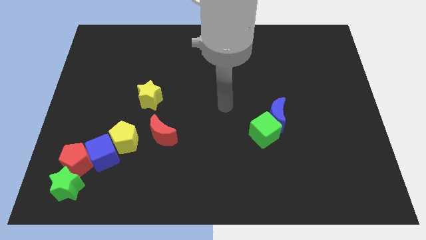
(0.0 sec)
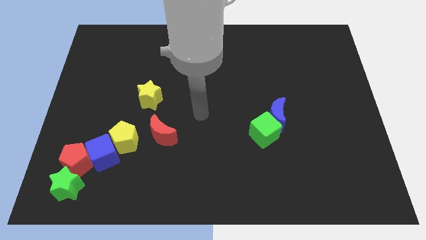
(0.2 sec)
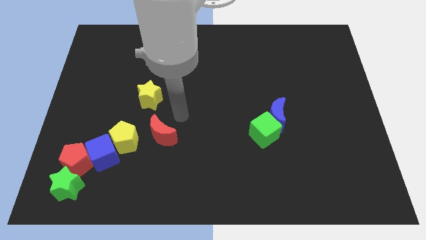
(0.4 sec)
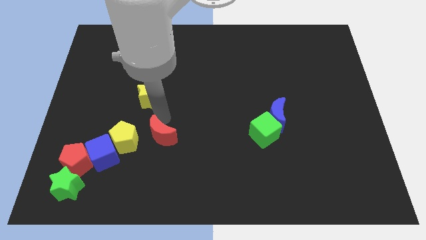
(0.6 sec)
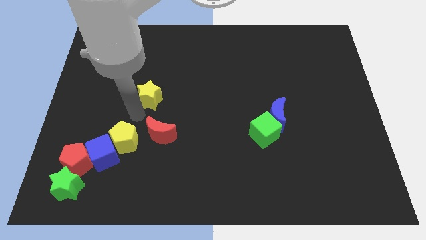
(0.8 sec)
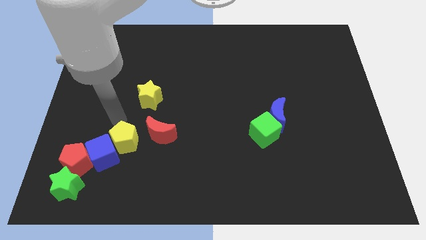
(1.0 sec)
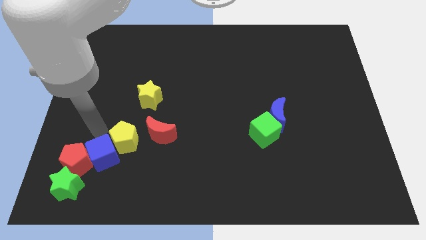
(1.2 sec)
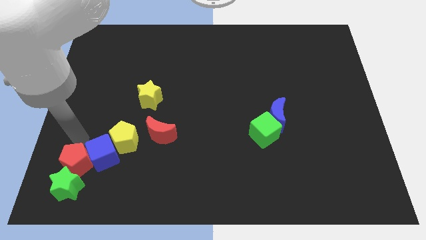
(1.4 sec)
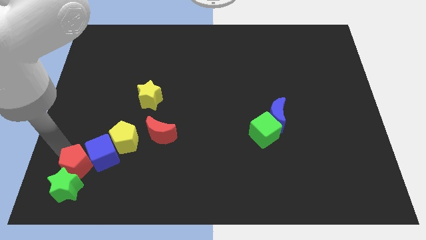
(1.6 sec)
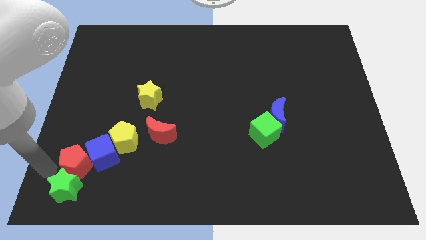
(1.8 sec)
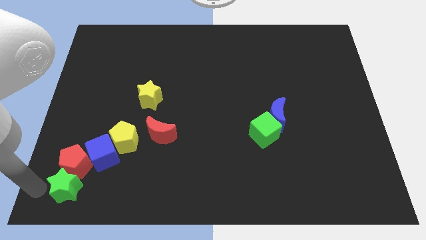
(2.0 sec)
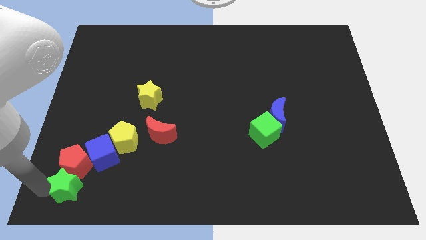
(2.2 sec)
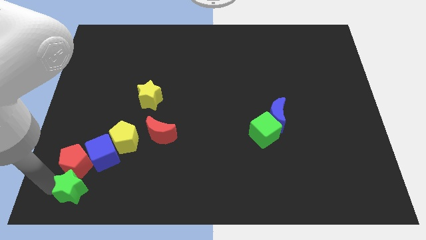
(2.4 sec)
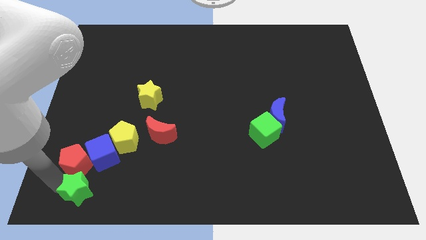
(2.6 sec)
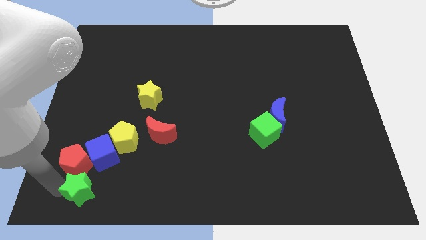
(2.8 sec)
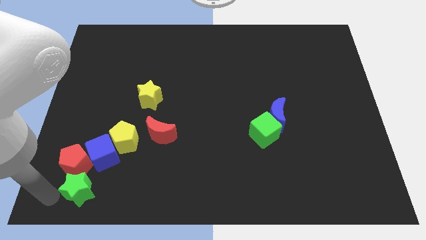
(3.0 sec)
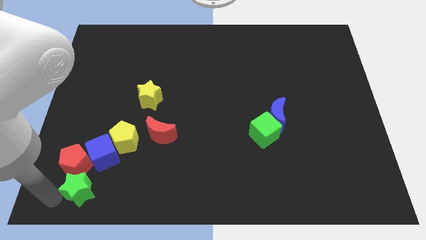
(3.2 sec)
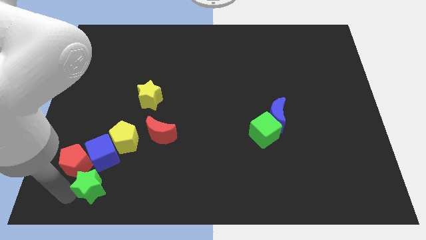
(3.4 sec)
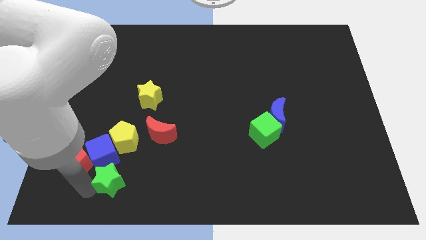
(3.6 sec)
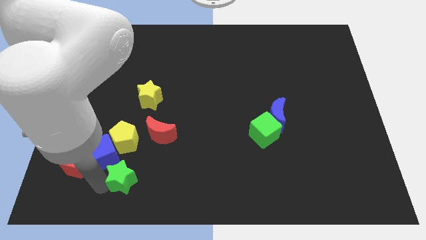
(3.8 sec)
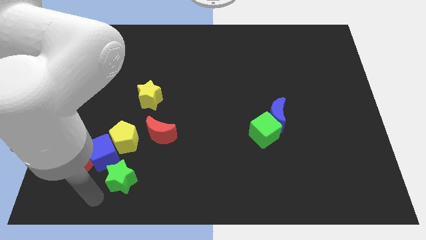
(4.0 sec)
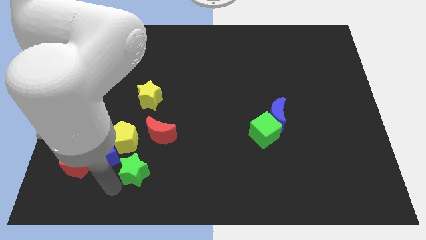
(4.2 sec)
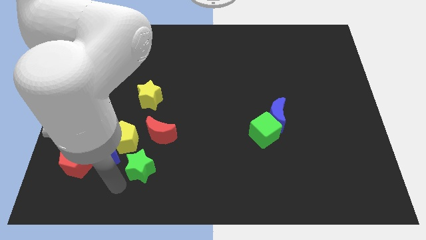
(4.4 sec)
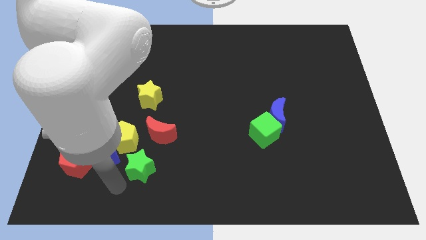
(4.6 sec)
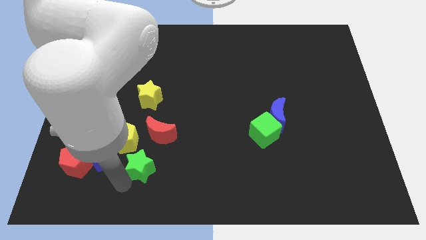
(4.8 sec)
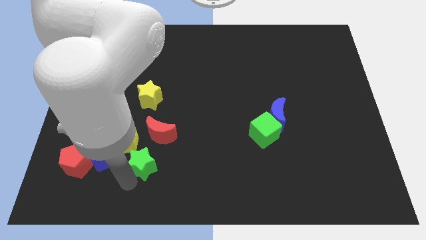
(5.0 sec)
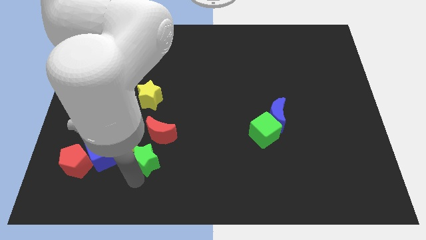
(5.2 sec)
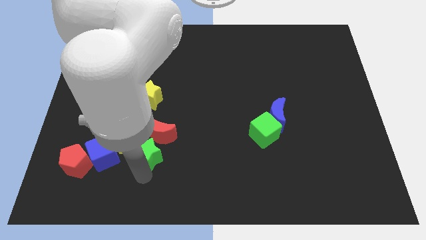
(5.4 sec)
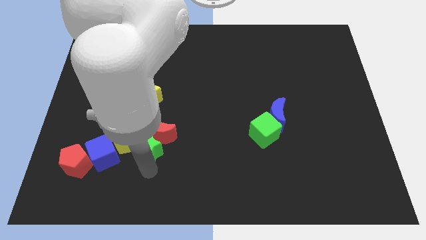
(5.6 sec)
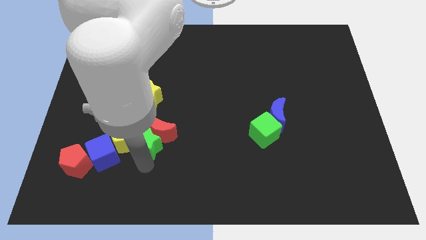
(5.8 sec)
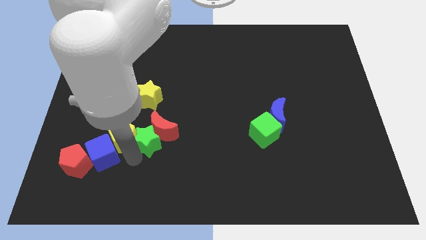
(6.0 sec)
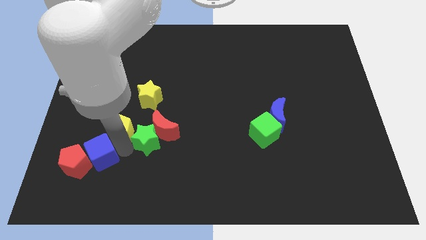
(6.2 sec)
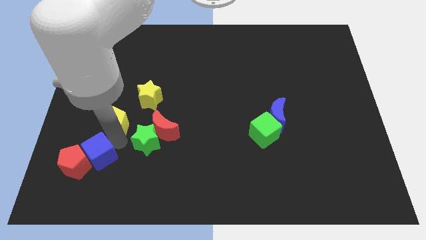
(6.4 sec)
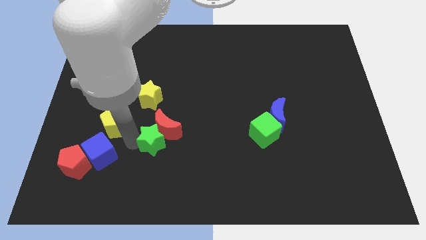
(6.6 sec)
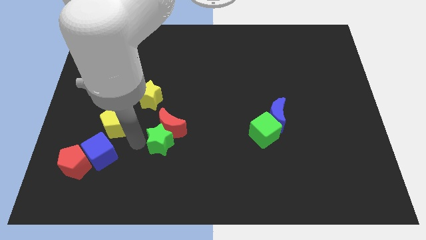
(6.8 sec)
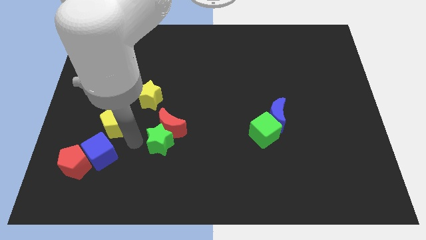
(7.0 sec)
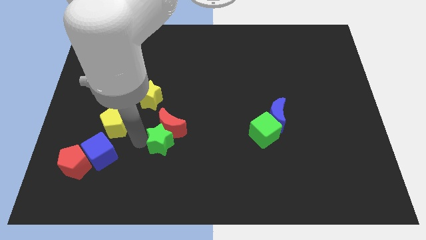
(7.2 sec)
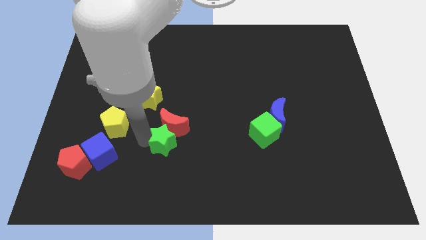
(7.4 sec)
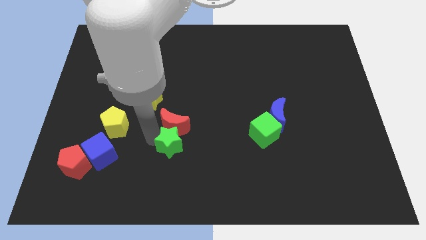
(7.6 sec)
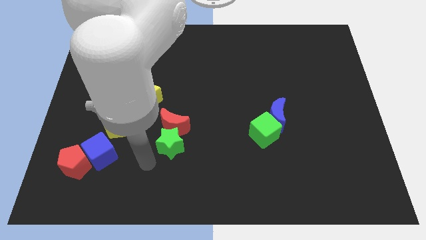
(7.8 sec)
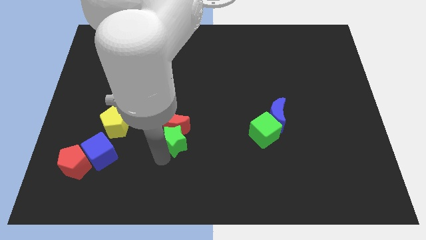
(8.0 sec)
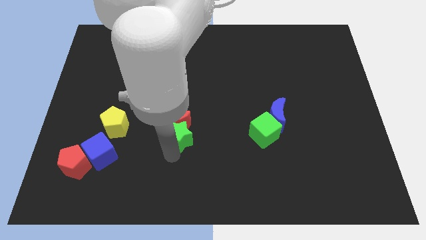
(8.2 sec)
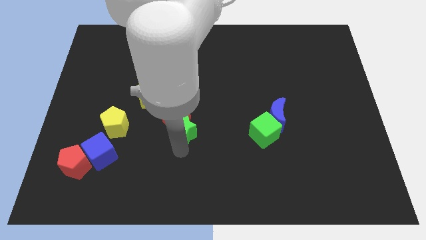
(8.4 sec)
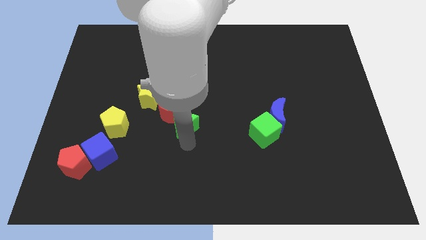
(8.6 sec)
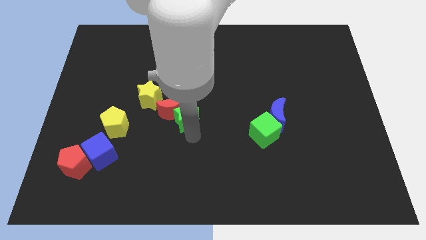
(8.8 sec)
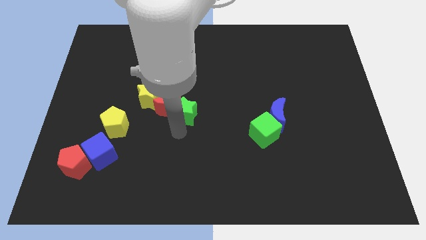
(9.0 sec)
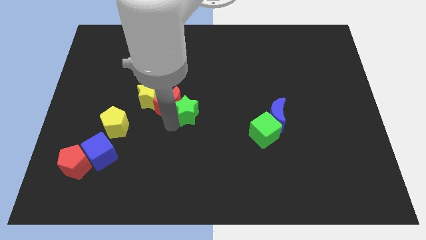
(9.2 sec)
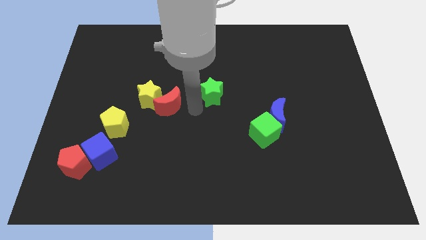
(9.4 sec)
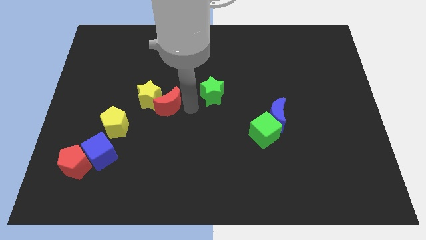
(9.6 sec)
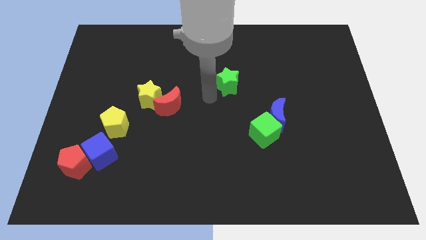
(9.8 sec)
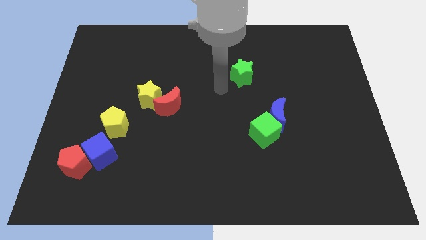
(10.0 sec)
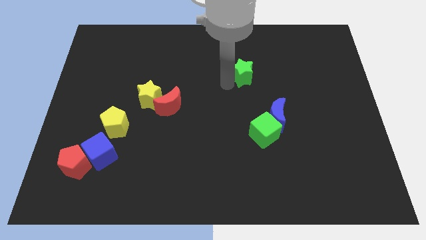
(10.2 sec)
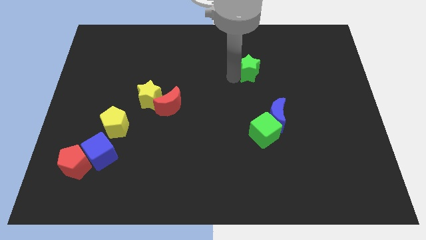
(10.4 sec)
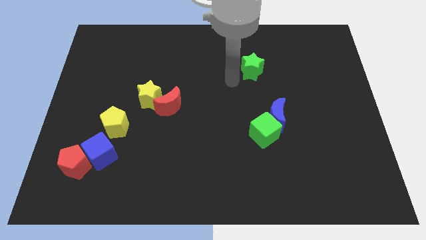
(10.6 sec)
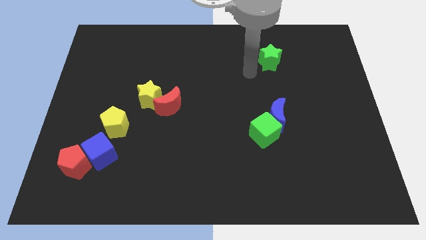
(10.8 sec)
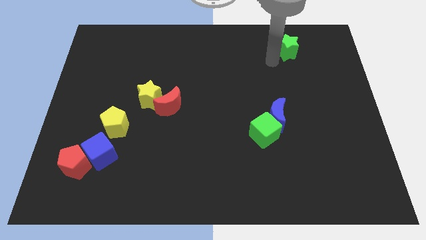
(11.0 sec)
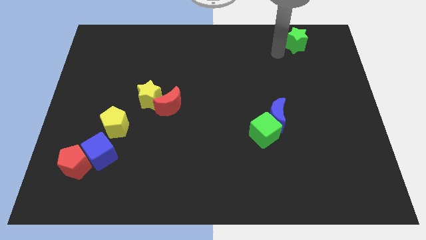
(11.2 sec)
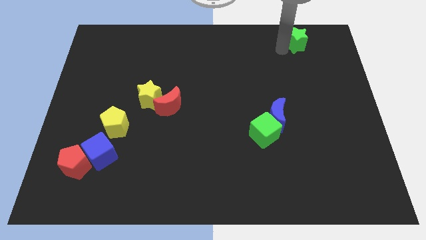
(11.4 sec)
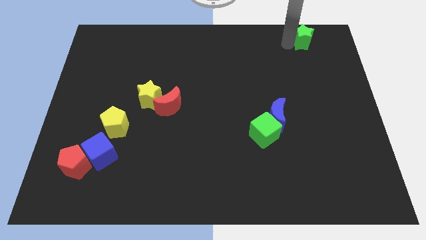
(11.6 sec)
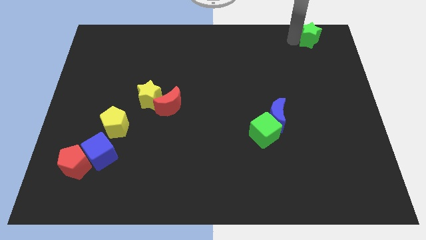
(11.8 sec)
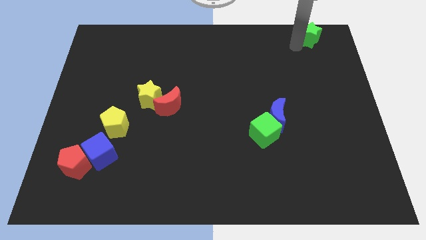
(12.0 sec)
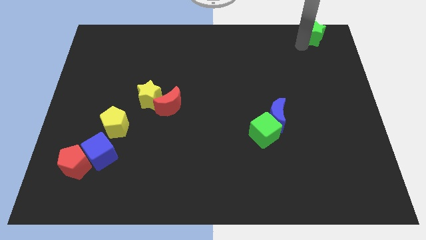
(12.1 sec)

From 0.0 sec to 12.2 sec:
slide the green star to the top right corner

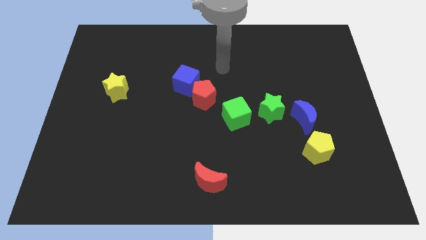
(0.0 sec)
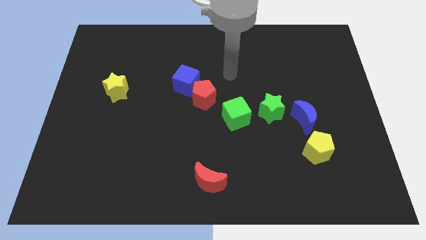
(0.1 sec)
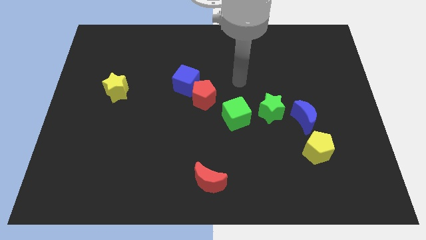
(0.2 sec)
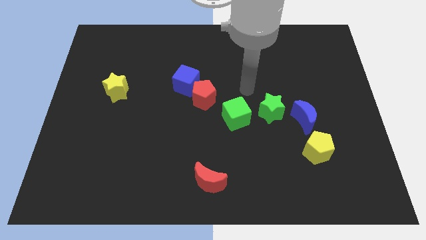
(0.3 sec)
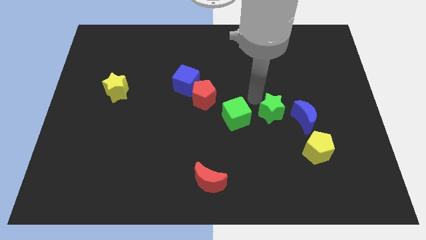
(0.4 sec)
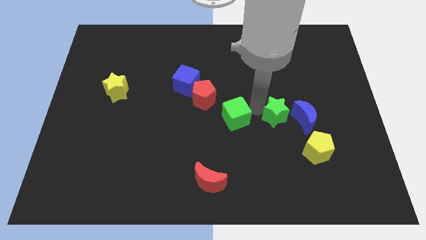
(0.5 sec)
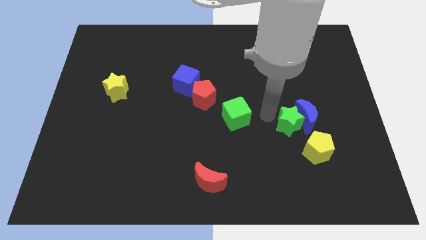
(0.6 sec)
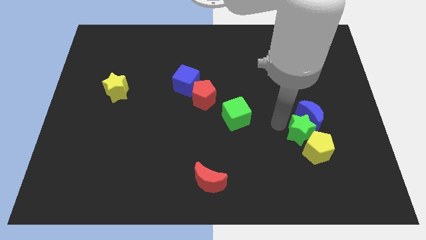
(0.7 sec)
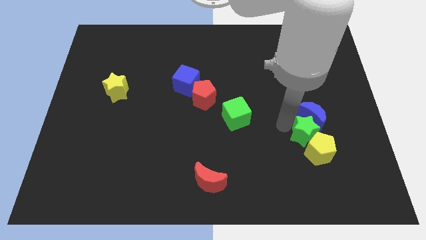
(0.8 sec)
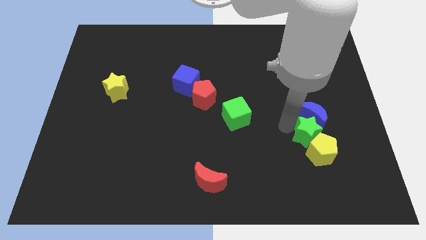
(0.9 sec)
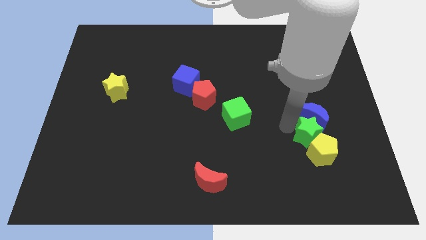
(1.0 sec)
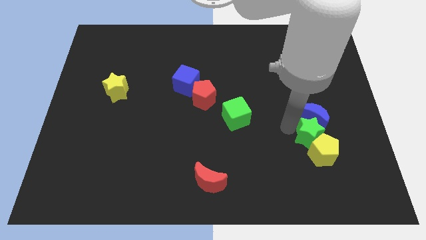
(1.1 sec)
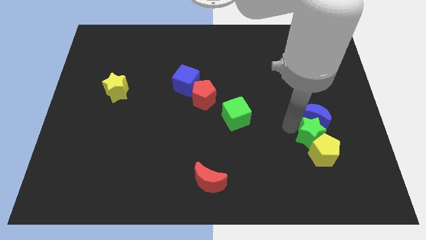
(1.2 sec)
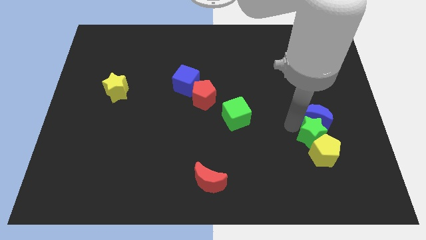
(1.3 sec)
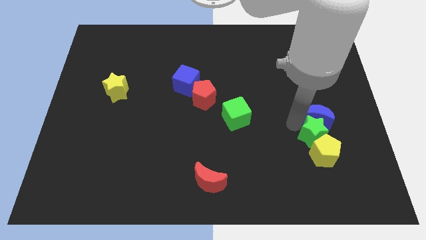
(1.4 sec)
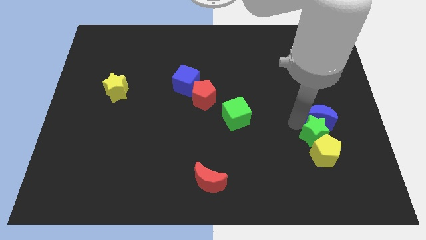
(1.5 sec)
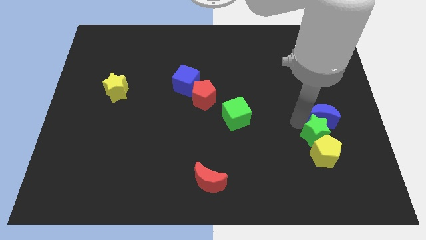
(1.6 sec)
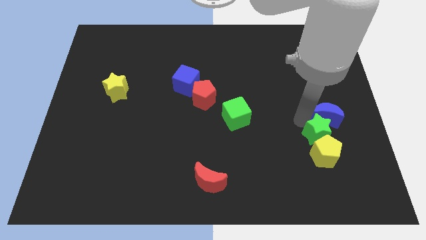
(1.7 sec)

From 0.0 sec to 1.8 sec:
put the blue moon to the right side of the board
